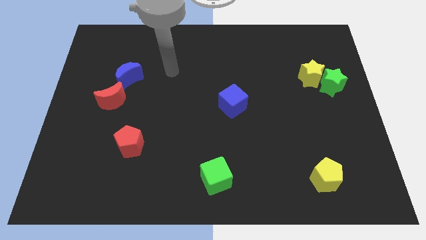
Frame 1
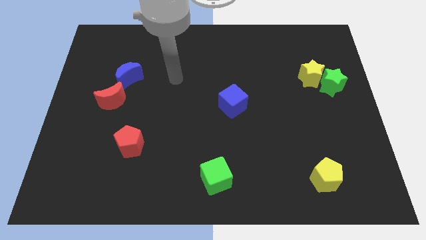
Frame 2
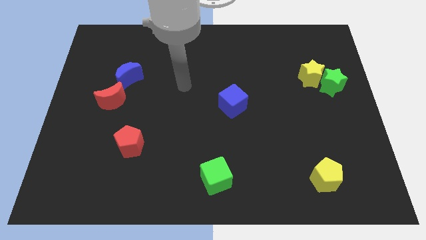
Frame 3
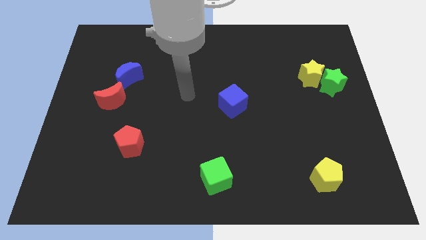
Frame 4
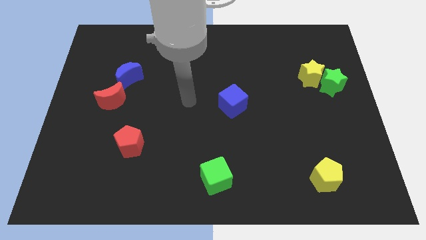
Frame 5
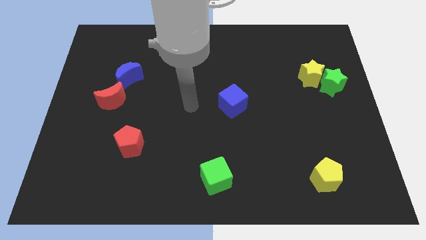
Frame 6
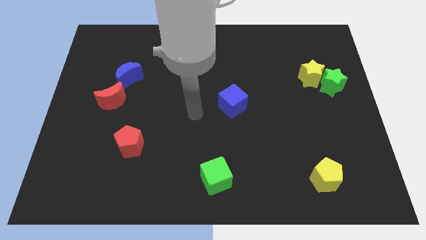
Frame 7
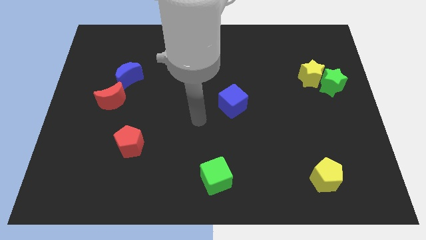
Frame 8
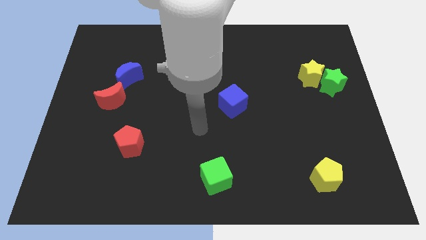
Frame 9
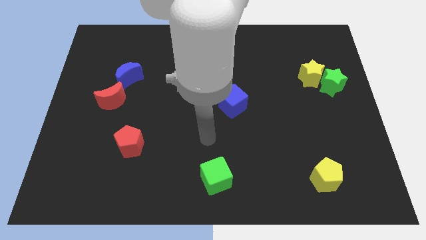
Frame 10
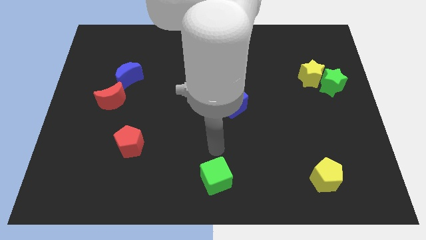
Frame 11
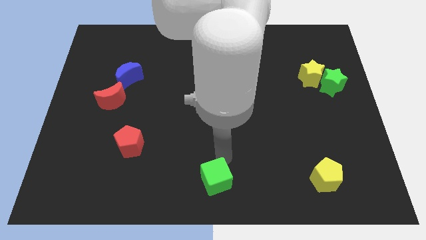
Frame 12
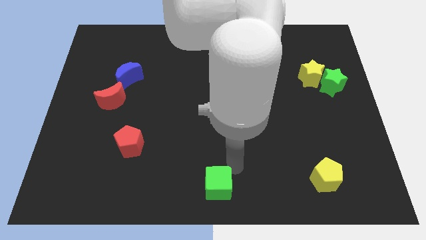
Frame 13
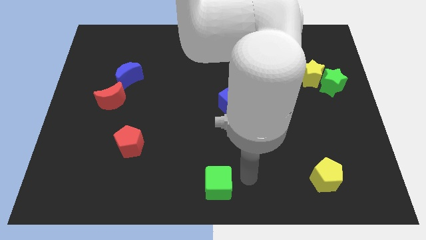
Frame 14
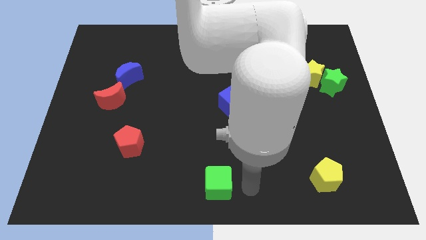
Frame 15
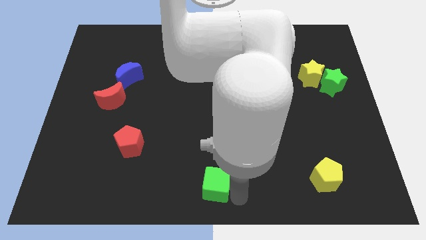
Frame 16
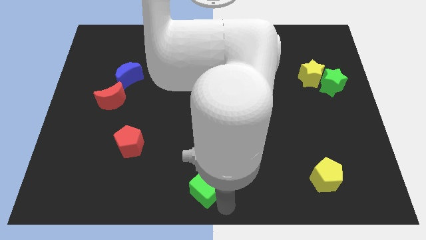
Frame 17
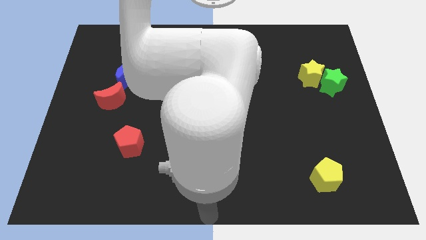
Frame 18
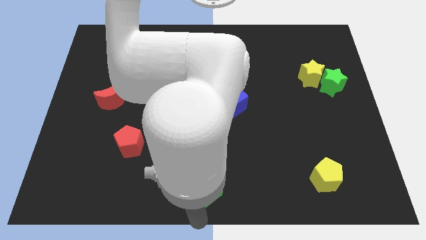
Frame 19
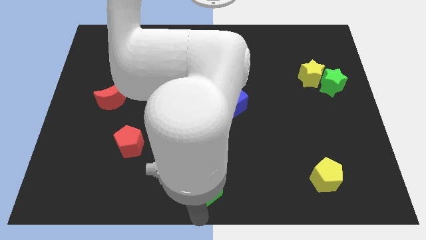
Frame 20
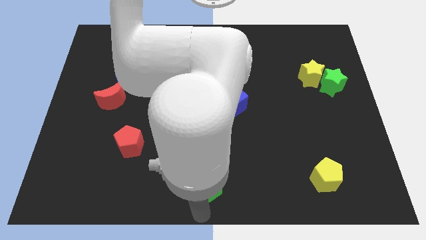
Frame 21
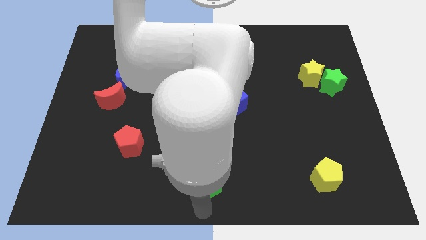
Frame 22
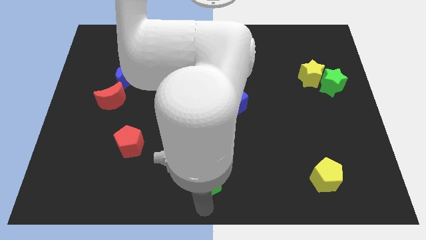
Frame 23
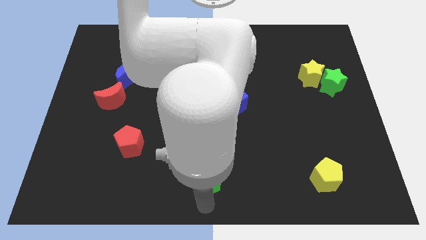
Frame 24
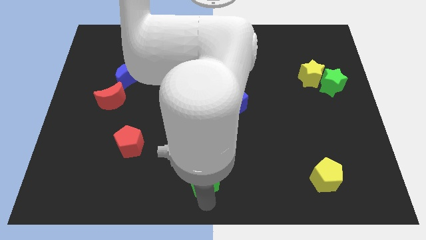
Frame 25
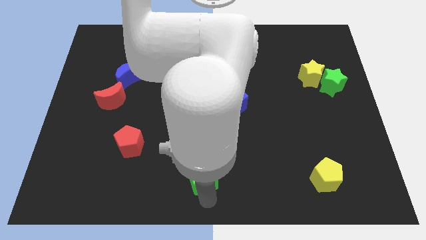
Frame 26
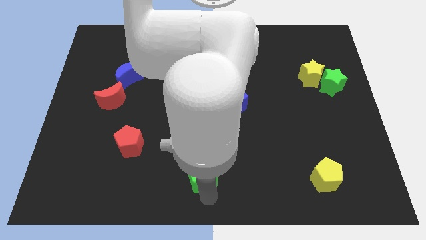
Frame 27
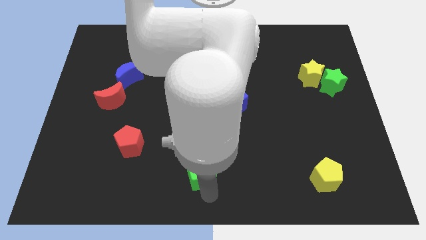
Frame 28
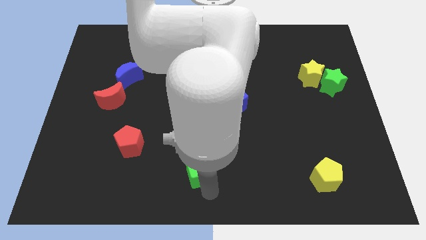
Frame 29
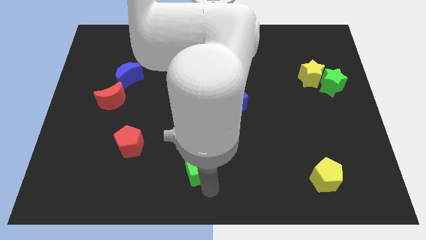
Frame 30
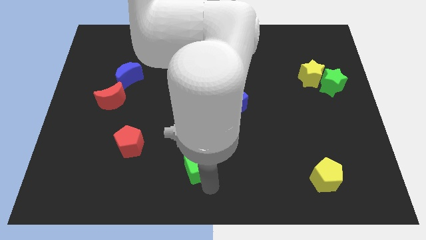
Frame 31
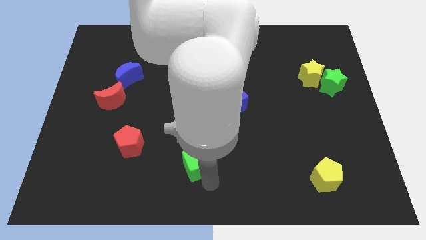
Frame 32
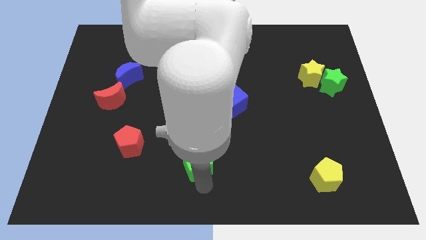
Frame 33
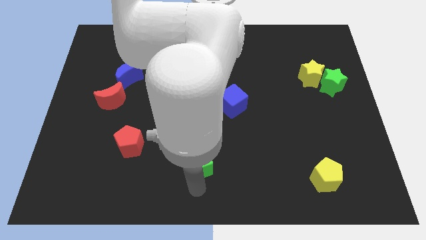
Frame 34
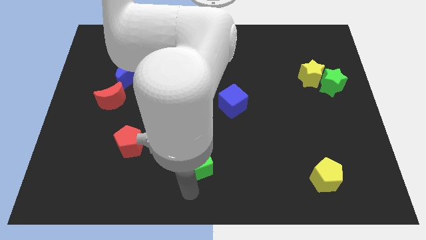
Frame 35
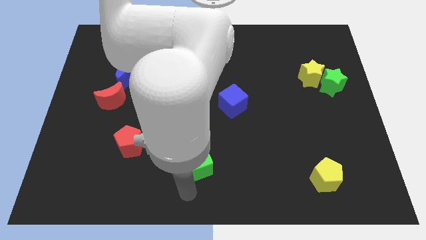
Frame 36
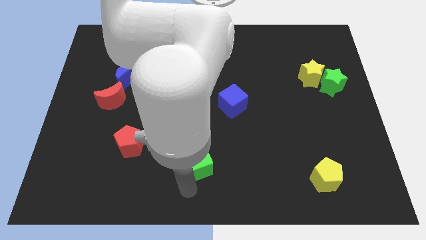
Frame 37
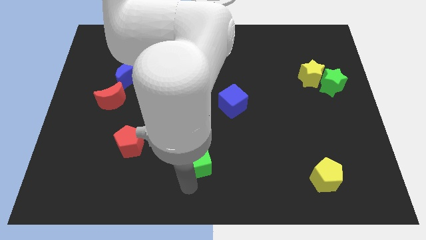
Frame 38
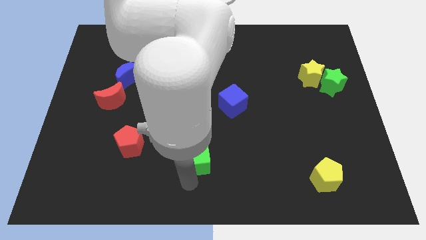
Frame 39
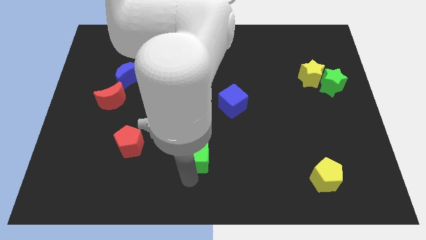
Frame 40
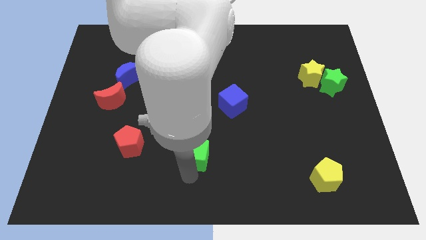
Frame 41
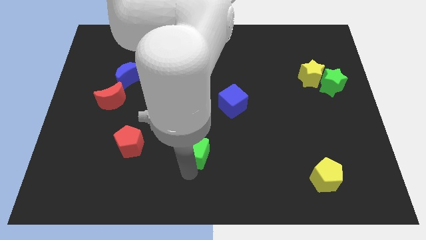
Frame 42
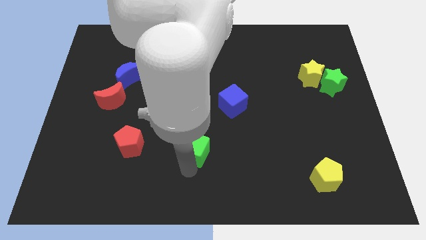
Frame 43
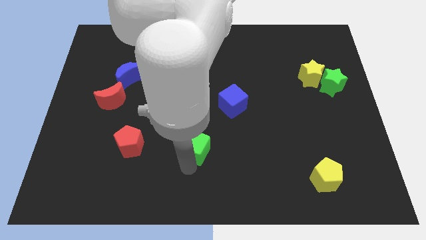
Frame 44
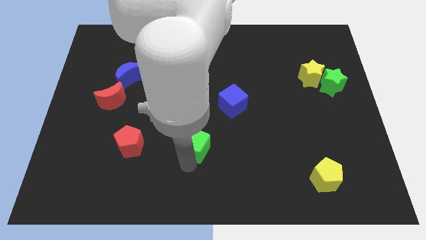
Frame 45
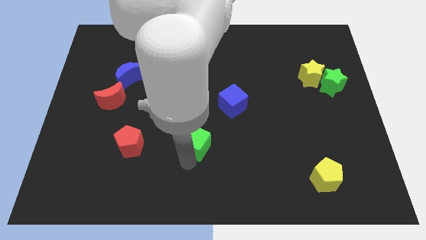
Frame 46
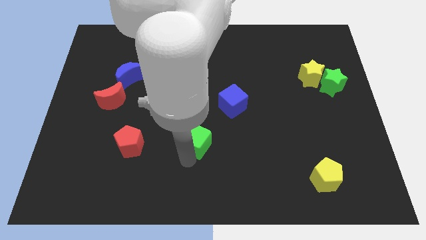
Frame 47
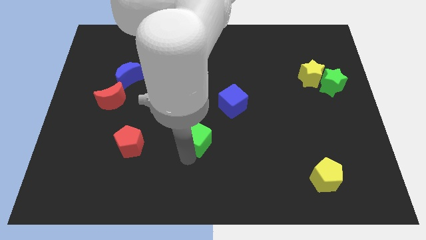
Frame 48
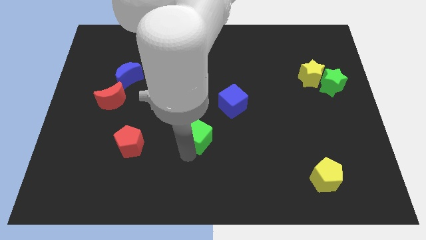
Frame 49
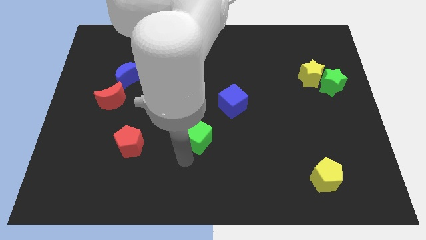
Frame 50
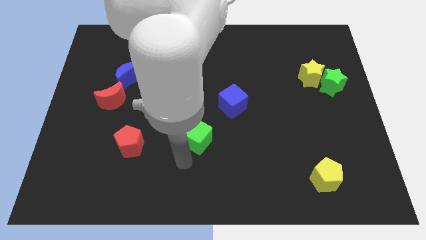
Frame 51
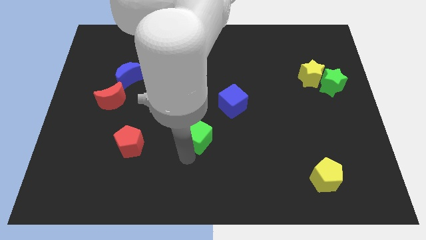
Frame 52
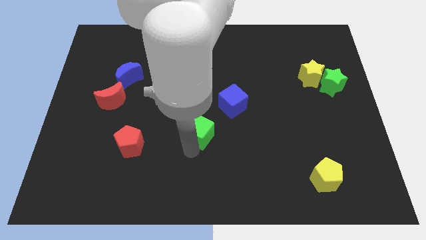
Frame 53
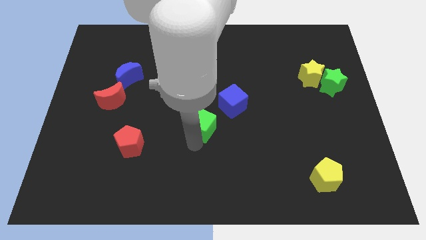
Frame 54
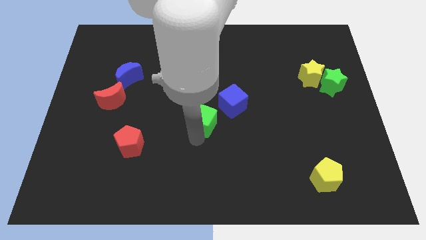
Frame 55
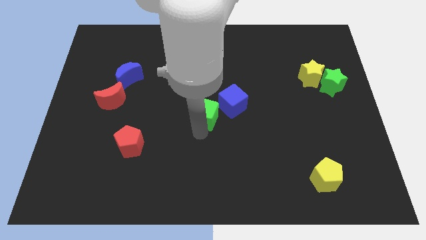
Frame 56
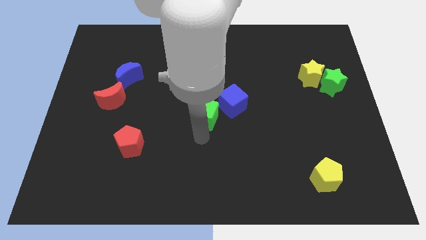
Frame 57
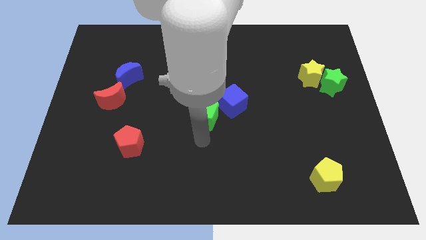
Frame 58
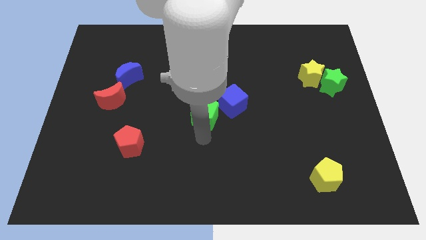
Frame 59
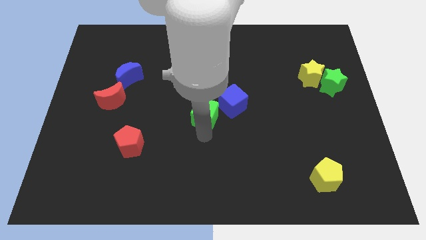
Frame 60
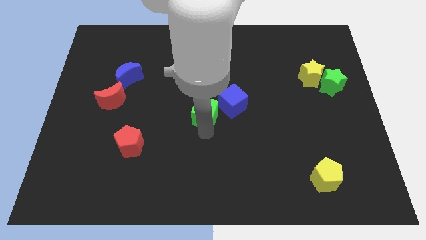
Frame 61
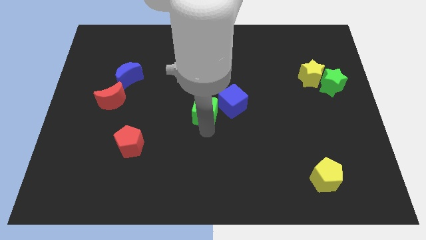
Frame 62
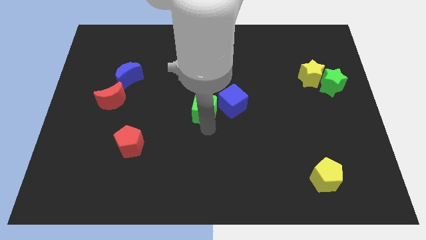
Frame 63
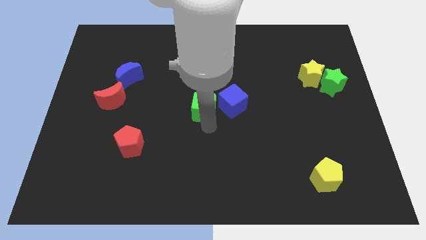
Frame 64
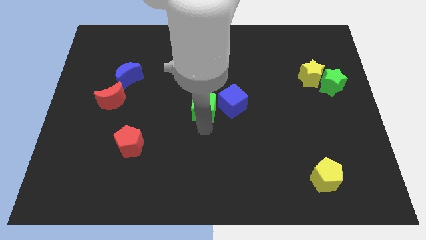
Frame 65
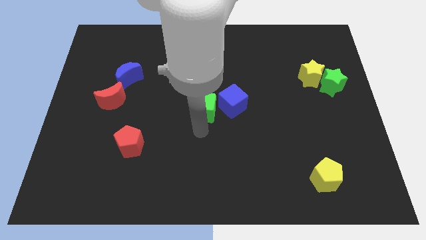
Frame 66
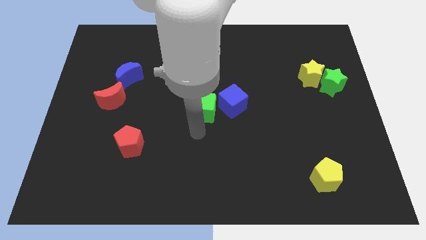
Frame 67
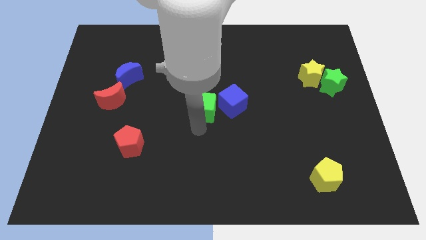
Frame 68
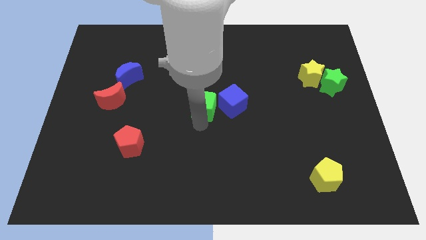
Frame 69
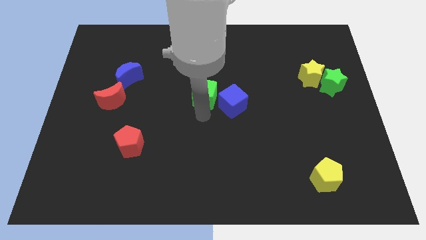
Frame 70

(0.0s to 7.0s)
push the green cube upwards

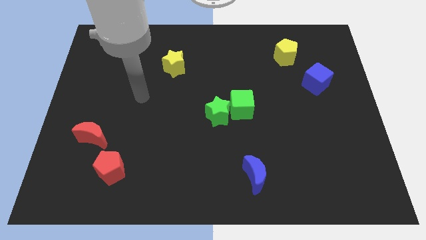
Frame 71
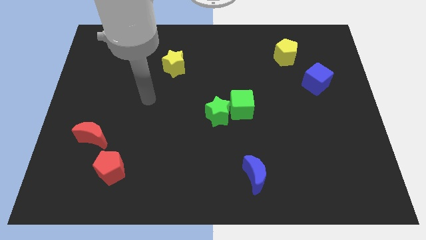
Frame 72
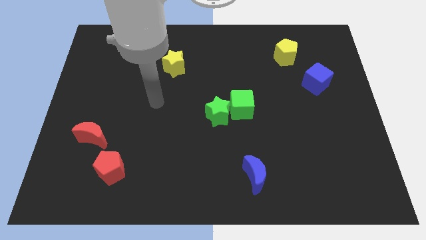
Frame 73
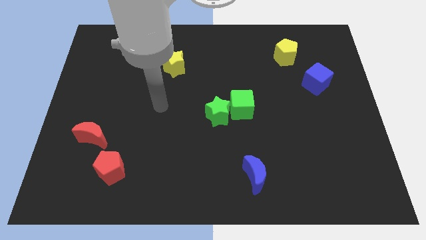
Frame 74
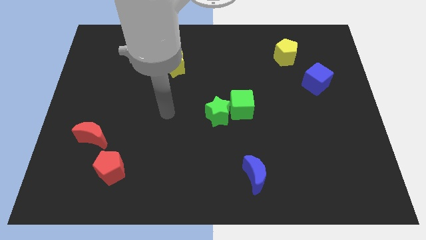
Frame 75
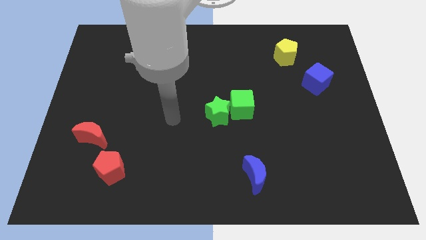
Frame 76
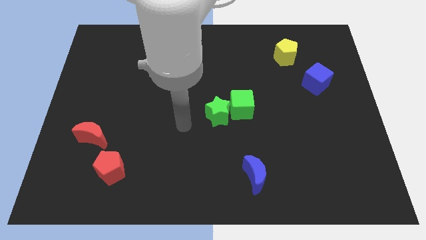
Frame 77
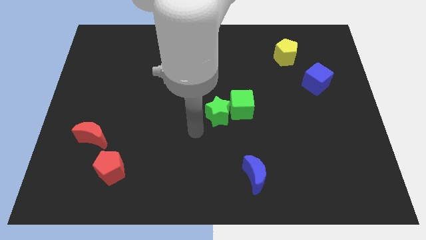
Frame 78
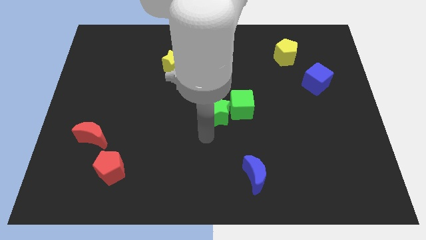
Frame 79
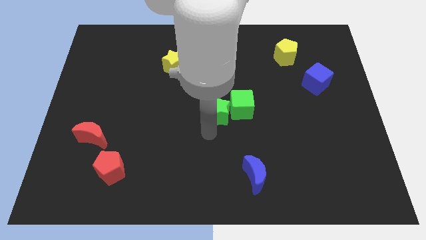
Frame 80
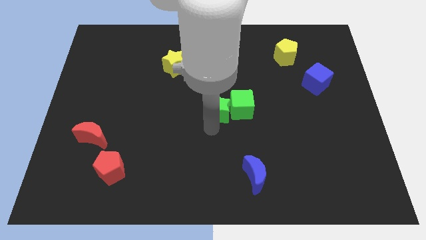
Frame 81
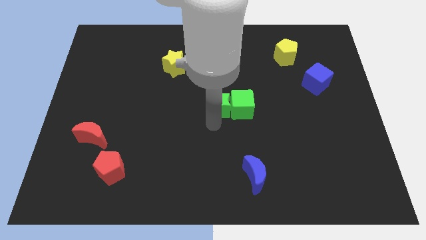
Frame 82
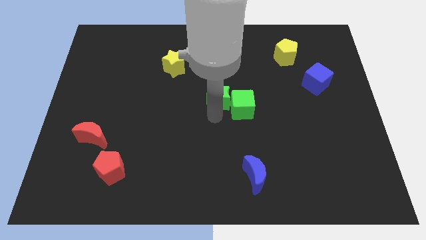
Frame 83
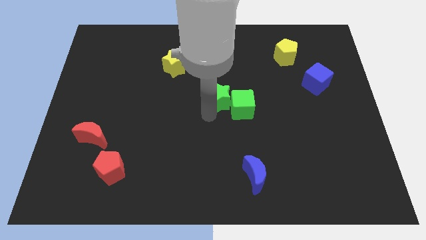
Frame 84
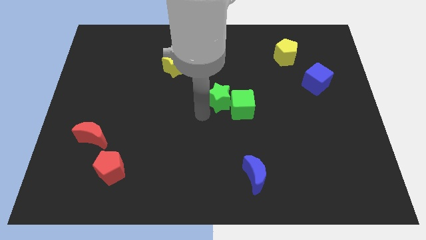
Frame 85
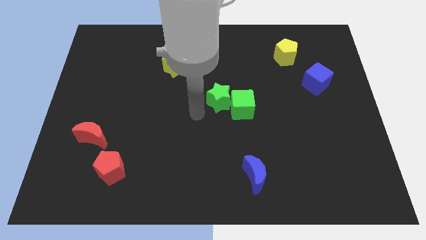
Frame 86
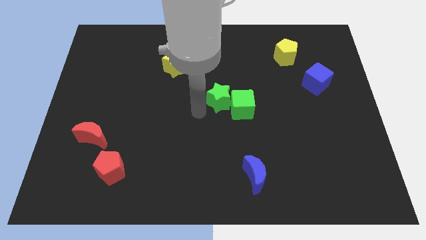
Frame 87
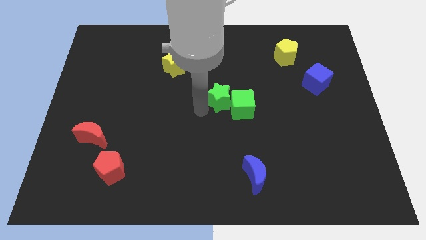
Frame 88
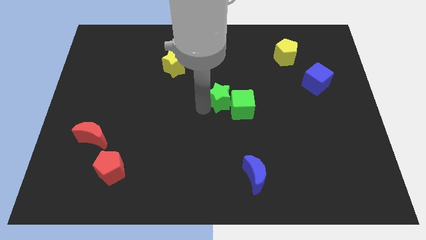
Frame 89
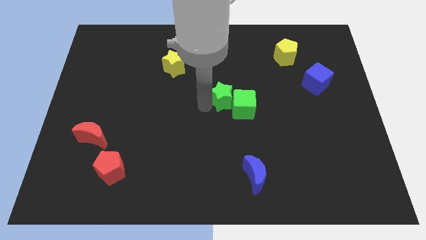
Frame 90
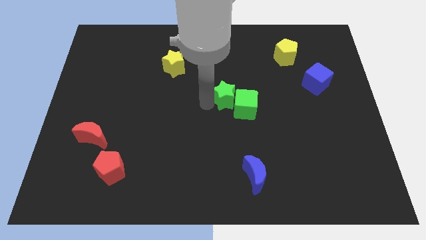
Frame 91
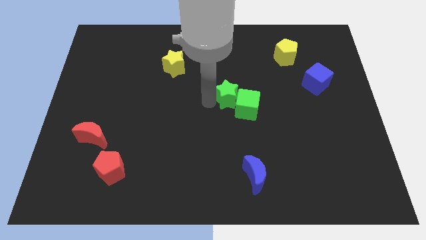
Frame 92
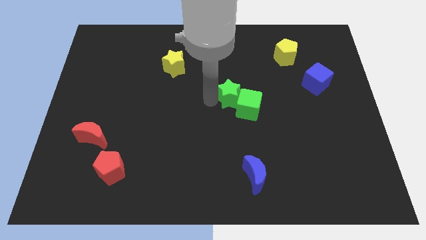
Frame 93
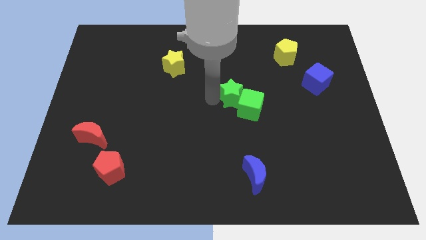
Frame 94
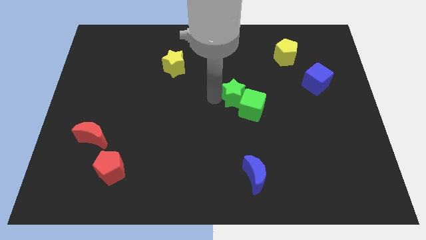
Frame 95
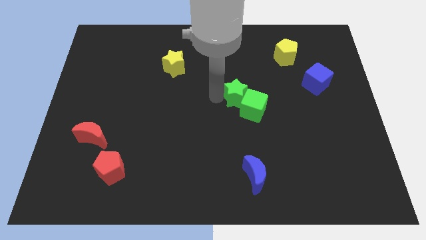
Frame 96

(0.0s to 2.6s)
slightly move the green star up and right diagonally
